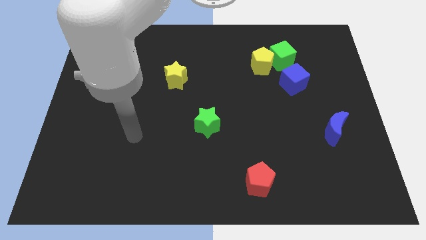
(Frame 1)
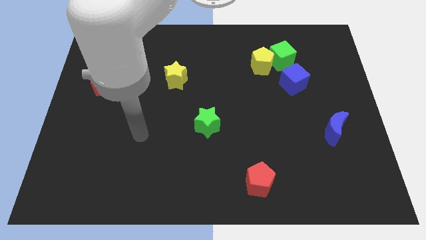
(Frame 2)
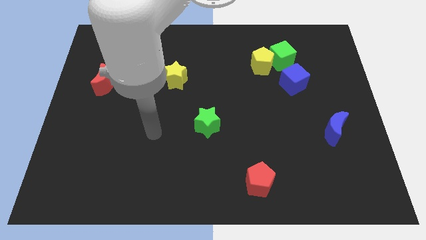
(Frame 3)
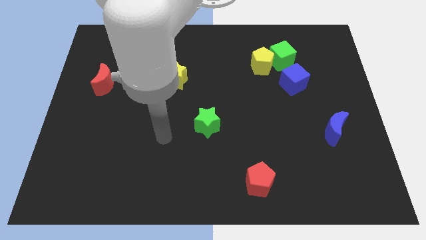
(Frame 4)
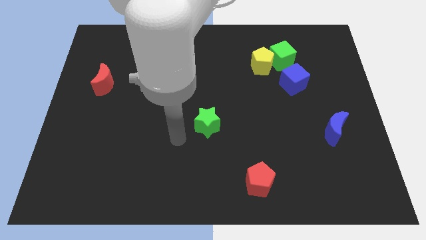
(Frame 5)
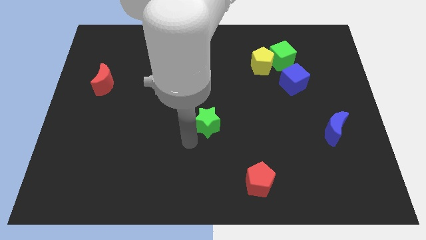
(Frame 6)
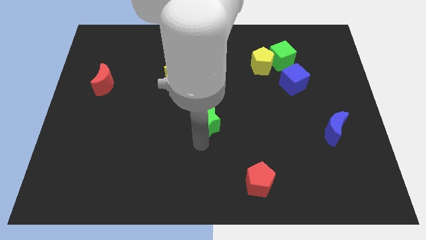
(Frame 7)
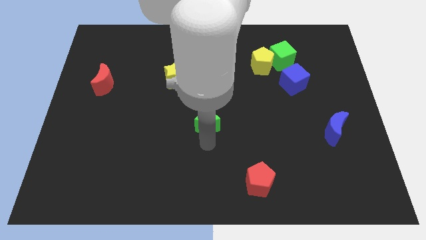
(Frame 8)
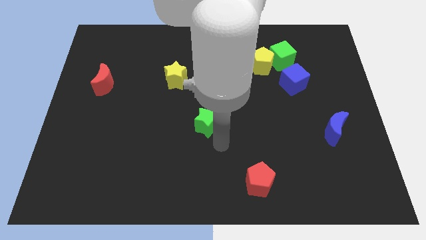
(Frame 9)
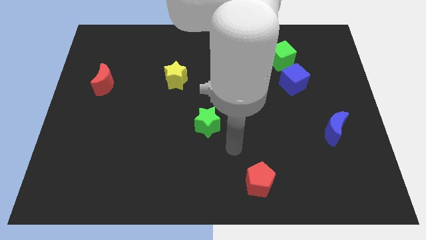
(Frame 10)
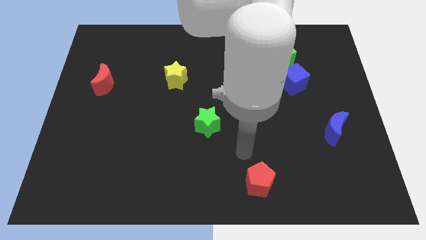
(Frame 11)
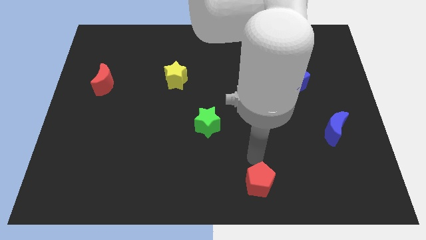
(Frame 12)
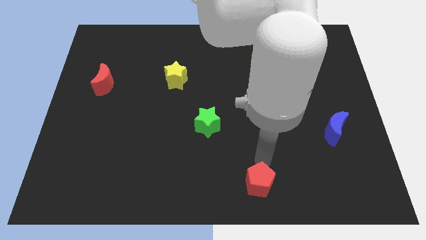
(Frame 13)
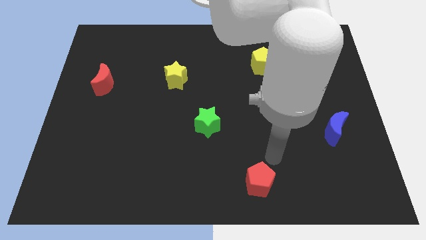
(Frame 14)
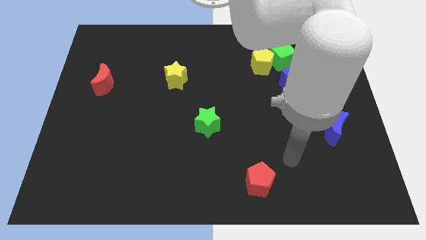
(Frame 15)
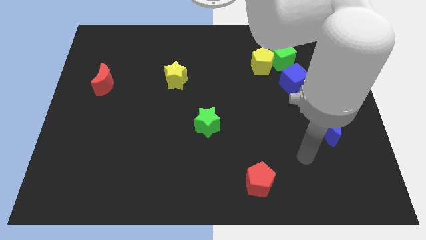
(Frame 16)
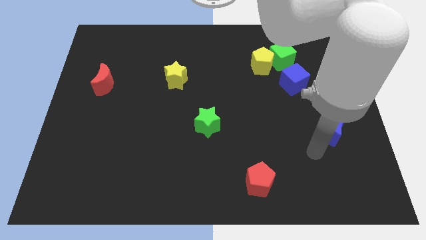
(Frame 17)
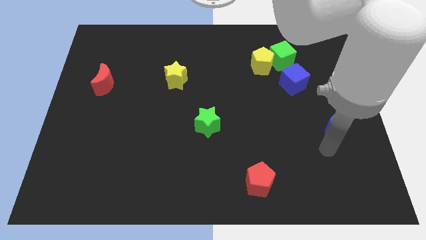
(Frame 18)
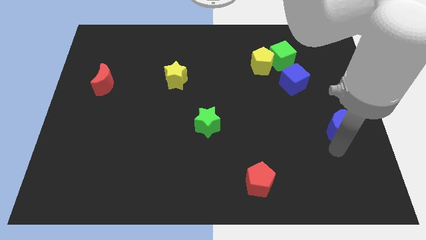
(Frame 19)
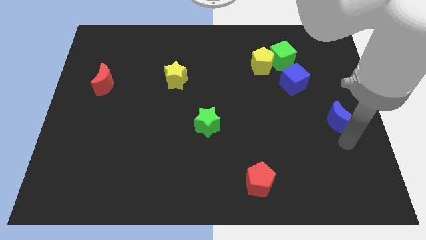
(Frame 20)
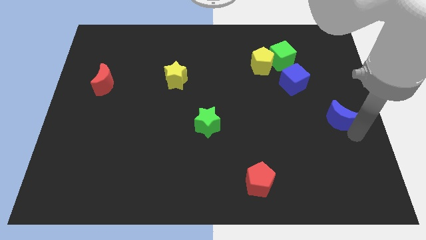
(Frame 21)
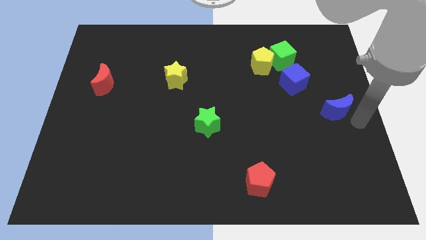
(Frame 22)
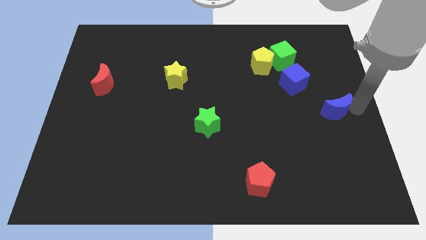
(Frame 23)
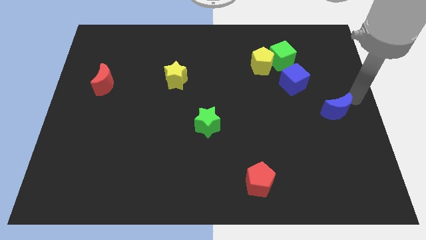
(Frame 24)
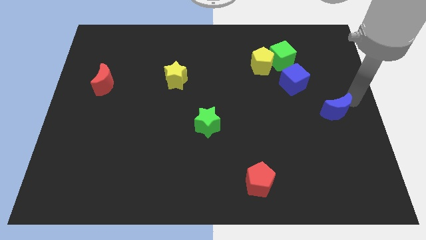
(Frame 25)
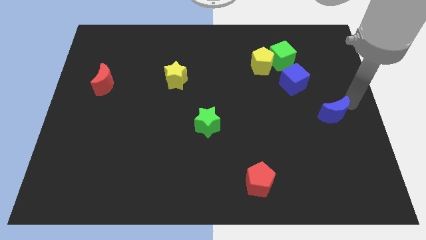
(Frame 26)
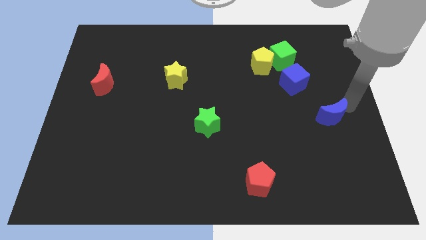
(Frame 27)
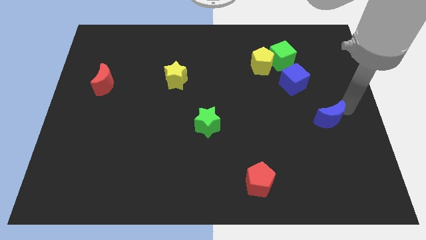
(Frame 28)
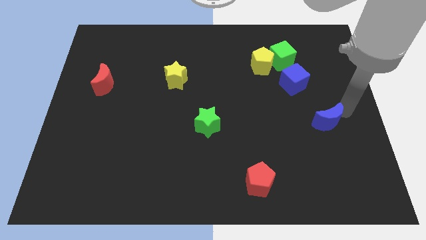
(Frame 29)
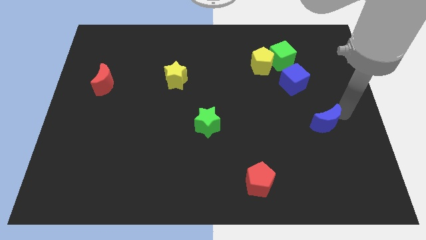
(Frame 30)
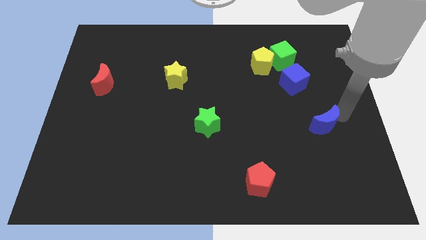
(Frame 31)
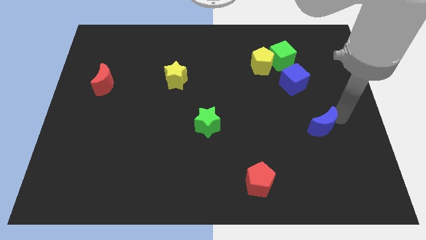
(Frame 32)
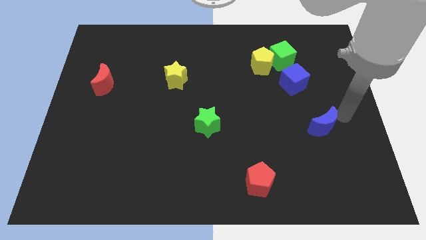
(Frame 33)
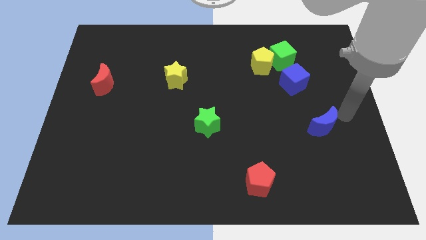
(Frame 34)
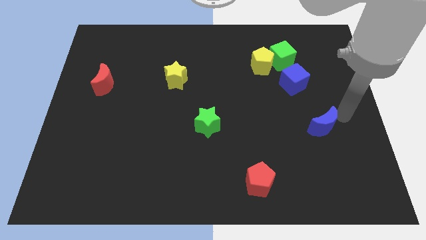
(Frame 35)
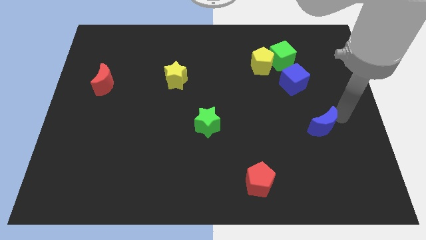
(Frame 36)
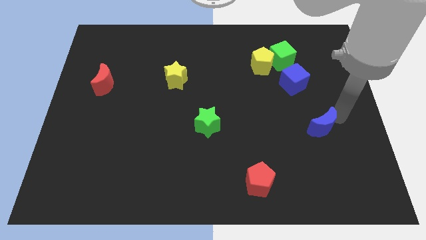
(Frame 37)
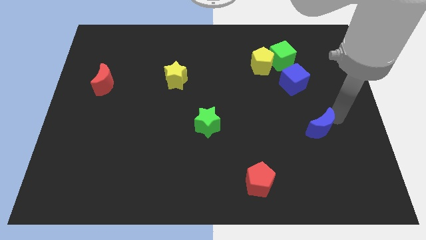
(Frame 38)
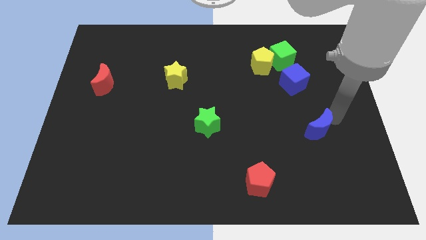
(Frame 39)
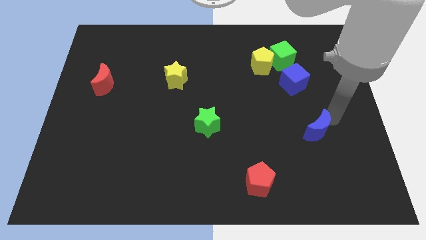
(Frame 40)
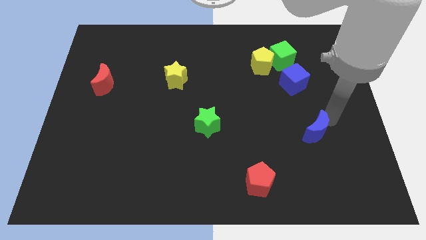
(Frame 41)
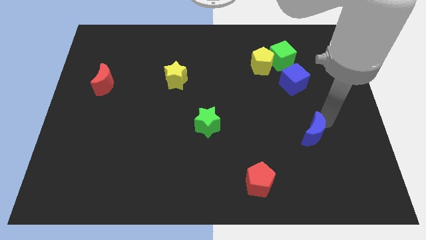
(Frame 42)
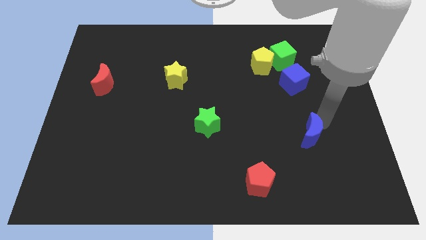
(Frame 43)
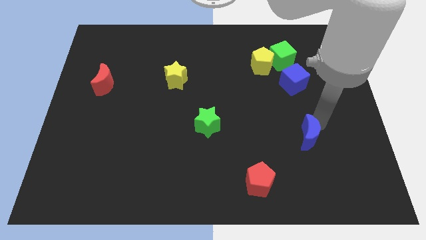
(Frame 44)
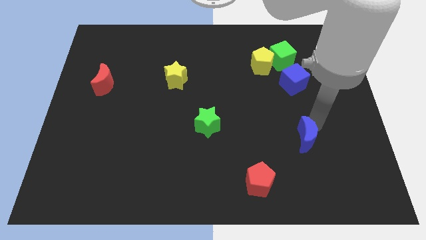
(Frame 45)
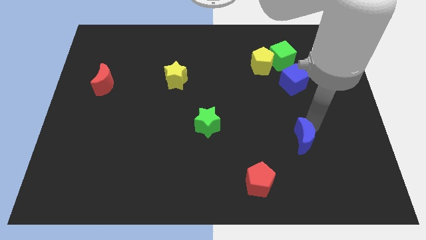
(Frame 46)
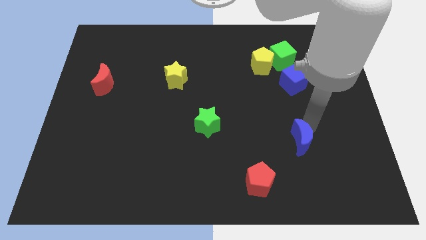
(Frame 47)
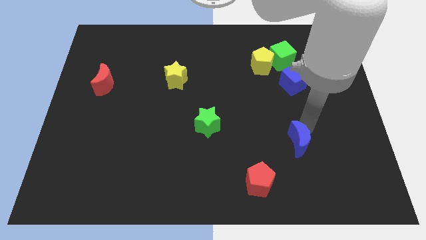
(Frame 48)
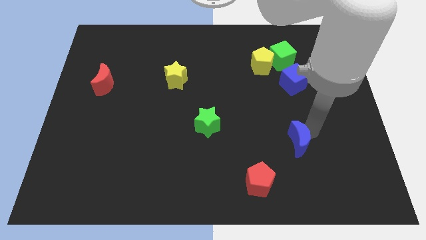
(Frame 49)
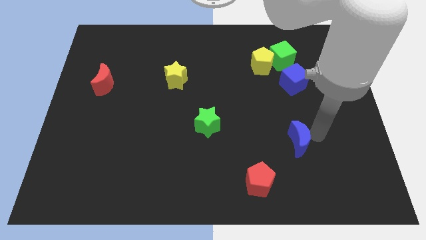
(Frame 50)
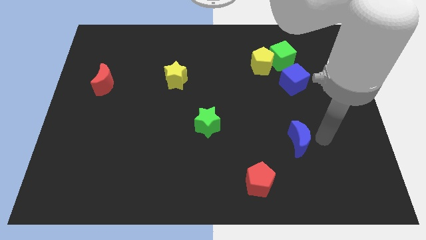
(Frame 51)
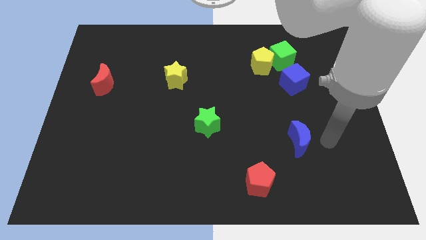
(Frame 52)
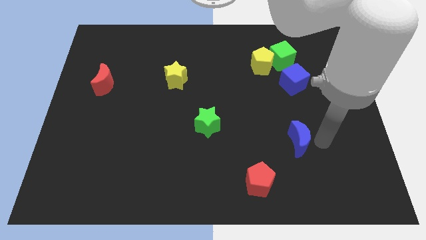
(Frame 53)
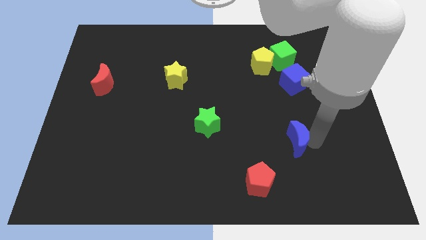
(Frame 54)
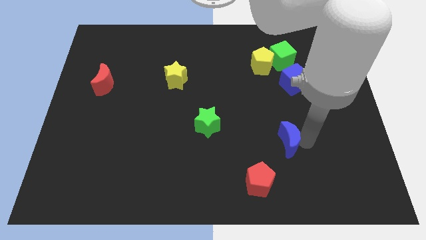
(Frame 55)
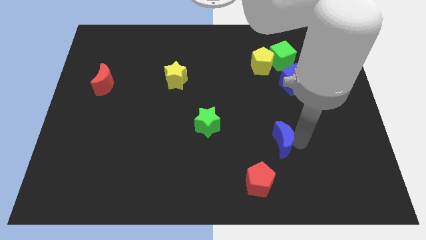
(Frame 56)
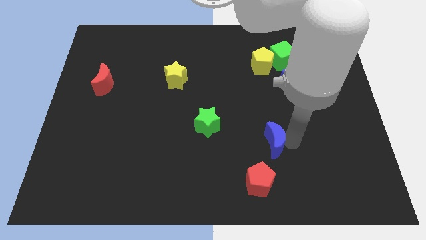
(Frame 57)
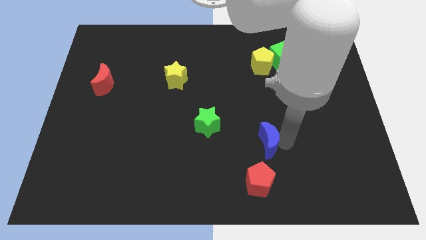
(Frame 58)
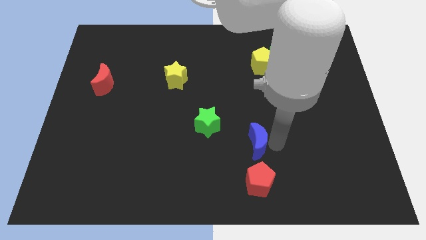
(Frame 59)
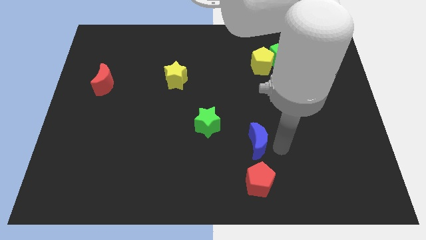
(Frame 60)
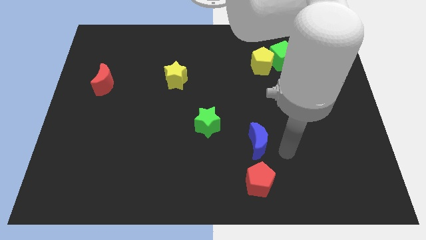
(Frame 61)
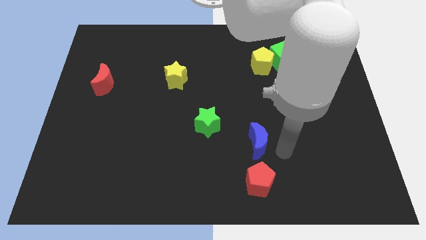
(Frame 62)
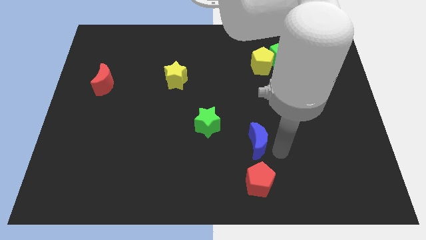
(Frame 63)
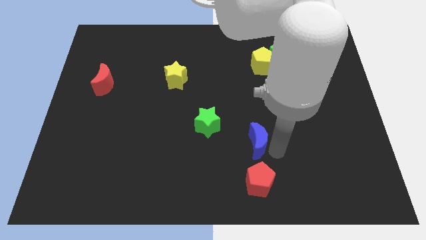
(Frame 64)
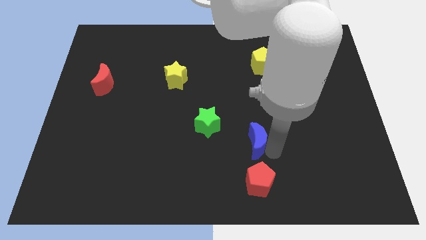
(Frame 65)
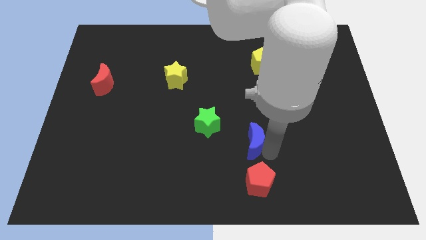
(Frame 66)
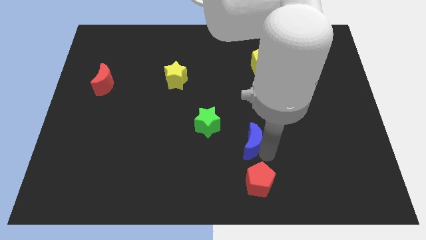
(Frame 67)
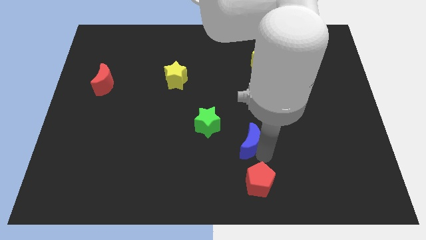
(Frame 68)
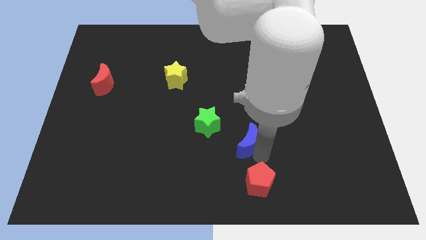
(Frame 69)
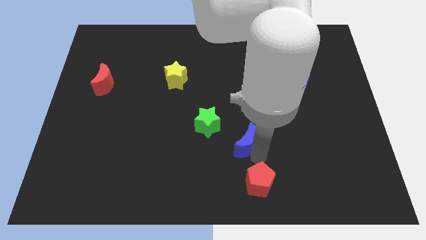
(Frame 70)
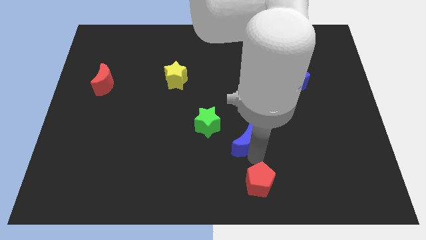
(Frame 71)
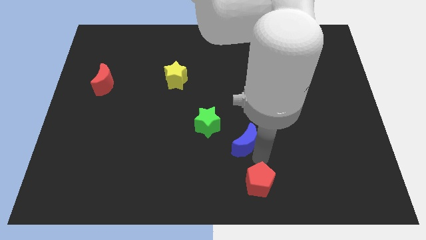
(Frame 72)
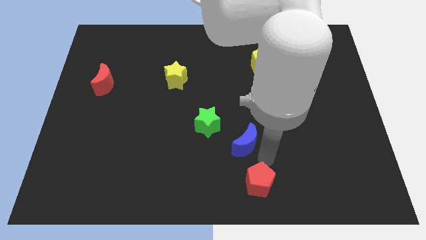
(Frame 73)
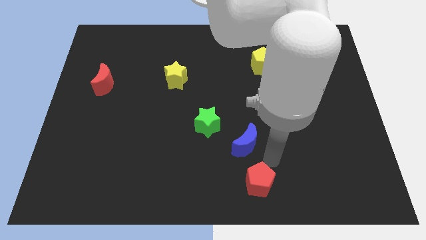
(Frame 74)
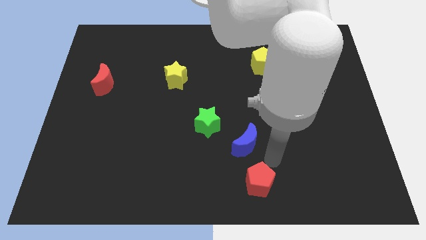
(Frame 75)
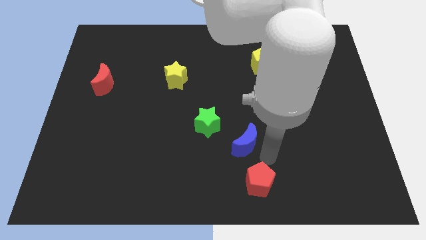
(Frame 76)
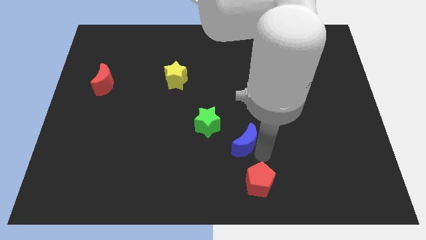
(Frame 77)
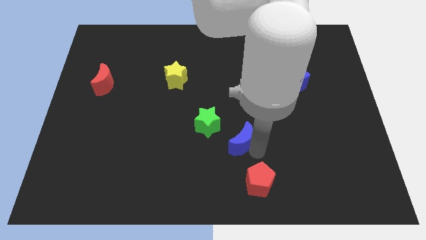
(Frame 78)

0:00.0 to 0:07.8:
slide the blue moon left
